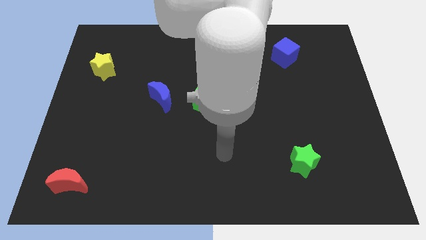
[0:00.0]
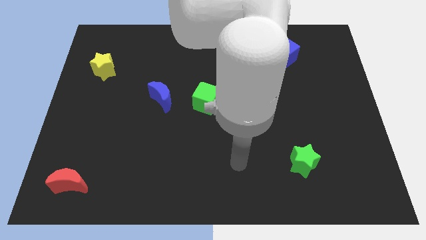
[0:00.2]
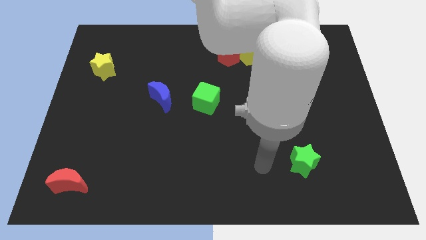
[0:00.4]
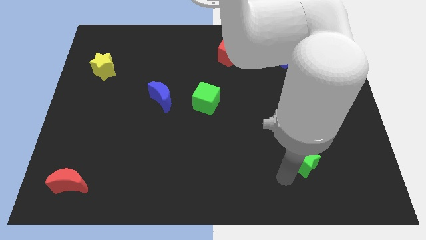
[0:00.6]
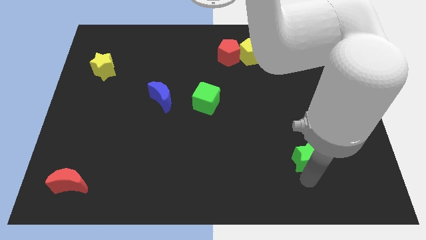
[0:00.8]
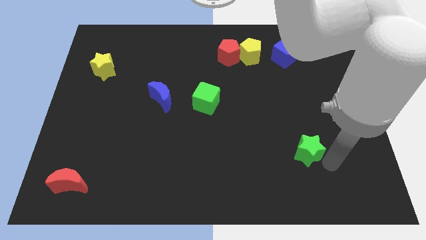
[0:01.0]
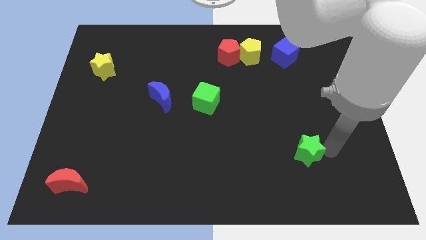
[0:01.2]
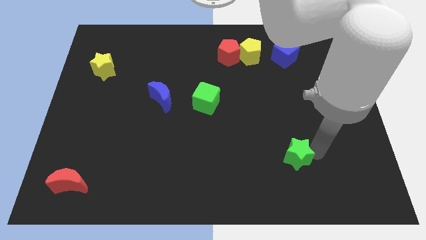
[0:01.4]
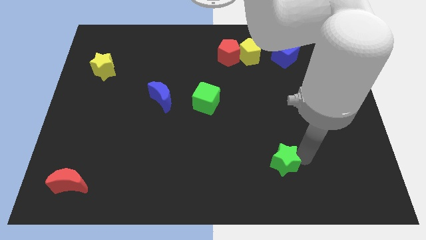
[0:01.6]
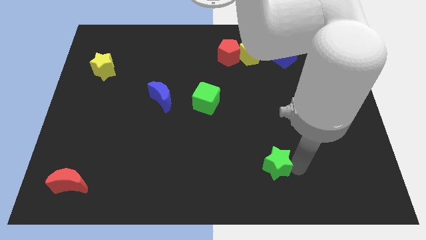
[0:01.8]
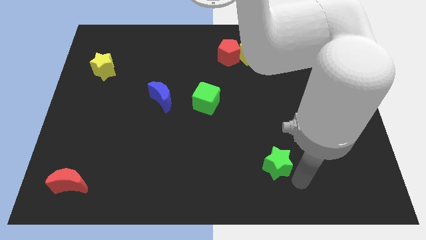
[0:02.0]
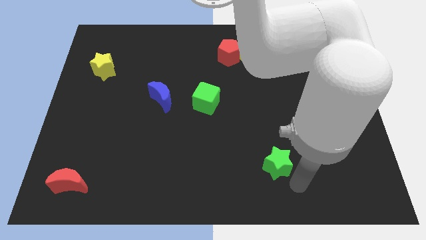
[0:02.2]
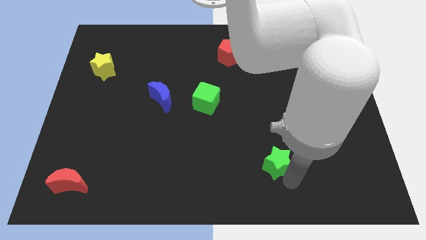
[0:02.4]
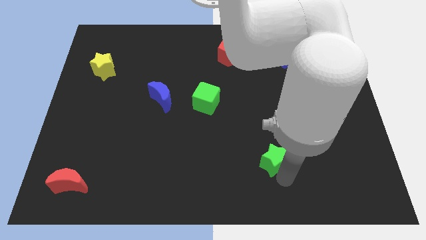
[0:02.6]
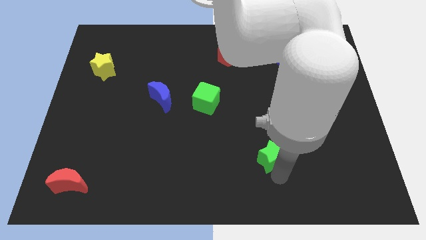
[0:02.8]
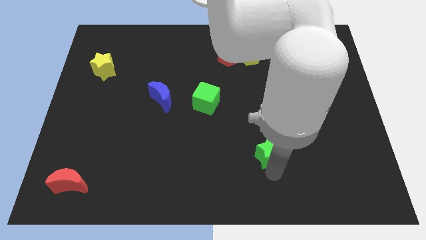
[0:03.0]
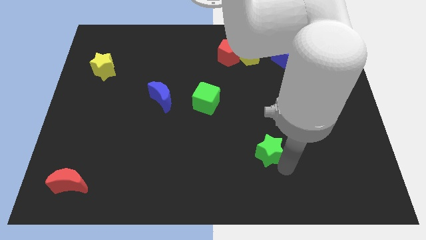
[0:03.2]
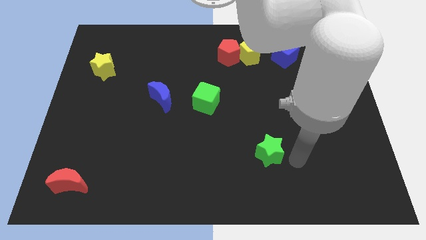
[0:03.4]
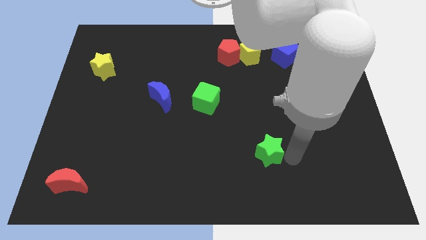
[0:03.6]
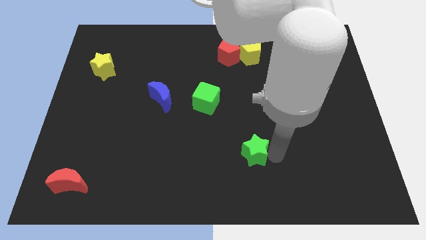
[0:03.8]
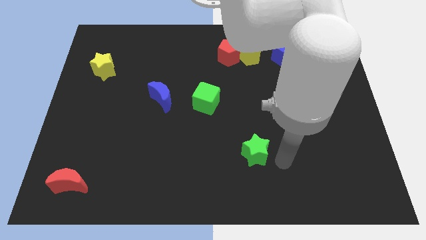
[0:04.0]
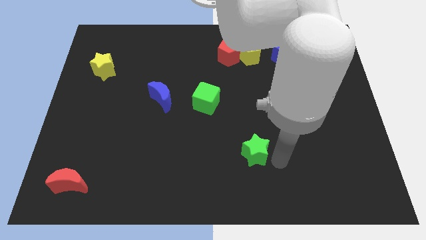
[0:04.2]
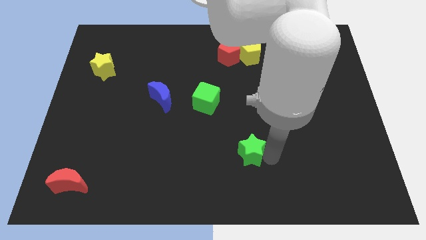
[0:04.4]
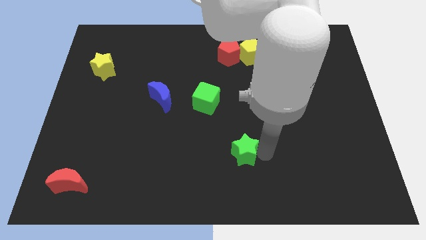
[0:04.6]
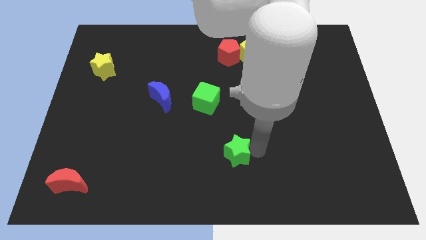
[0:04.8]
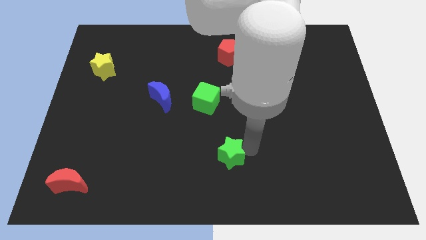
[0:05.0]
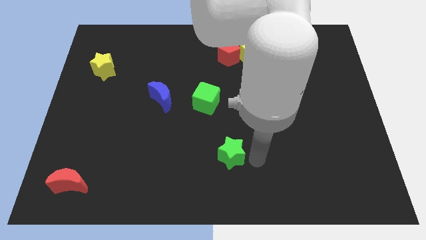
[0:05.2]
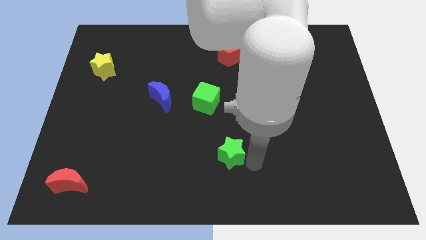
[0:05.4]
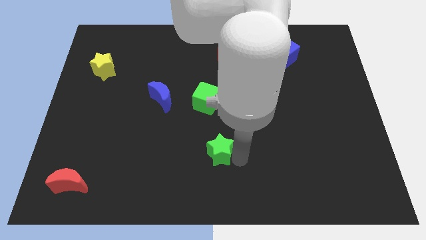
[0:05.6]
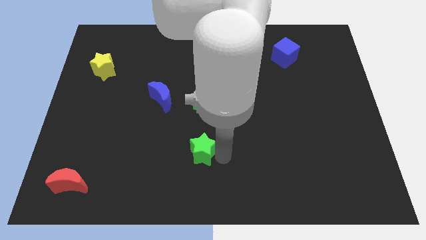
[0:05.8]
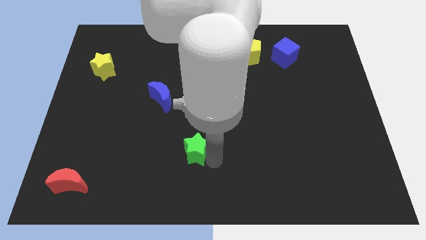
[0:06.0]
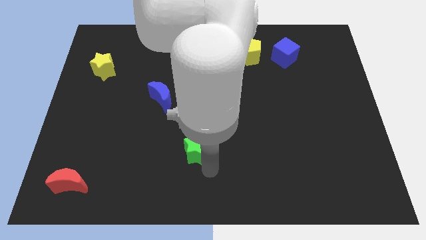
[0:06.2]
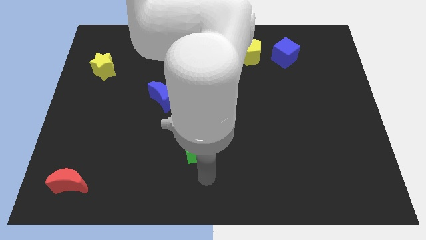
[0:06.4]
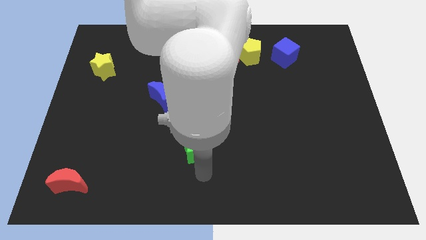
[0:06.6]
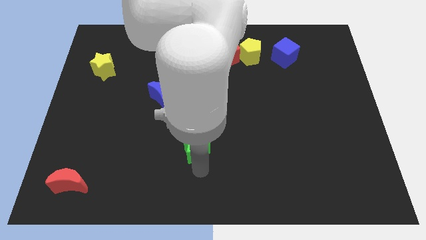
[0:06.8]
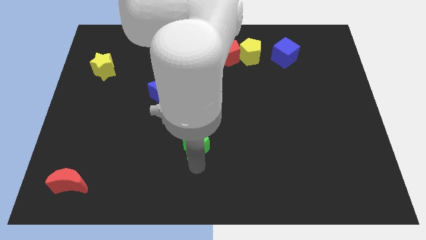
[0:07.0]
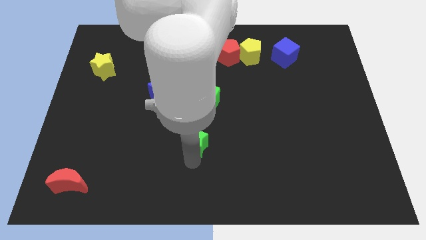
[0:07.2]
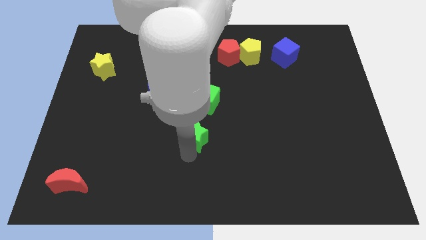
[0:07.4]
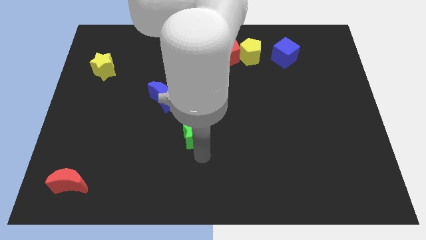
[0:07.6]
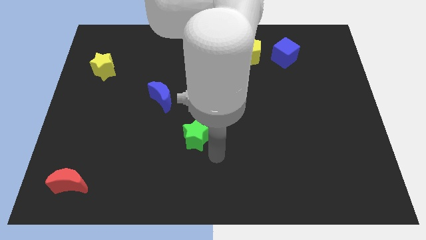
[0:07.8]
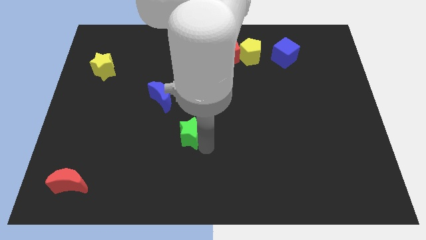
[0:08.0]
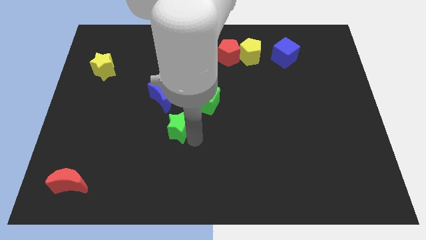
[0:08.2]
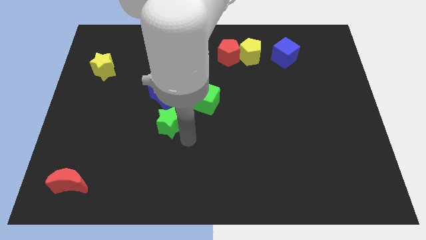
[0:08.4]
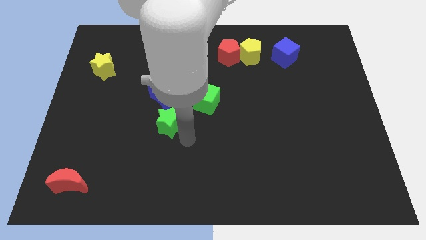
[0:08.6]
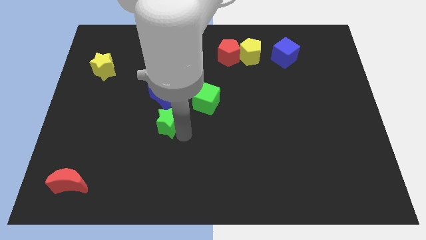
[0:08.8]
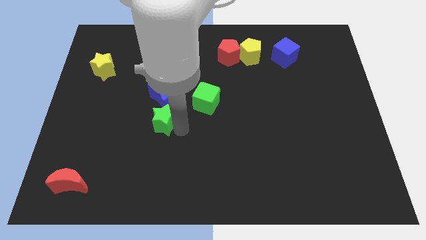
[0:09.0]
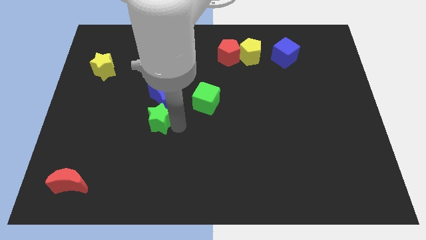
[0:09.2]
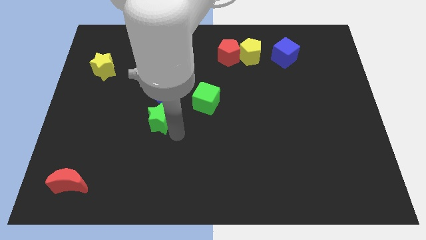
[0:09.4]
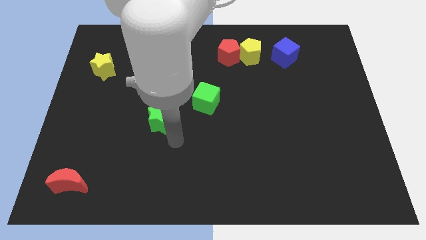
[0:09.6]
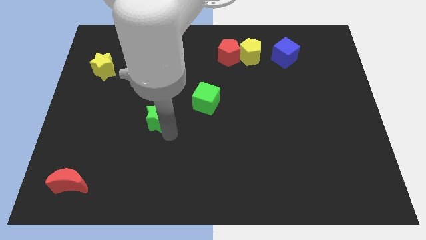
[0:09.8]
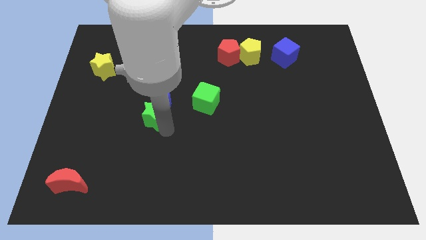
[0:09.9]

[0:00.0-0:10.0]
put the green star to the left side of the green cube

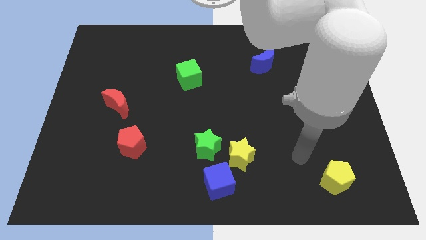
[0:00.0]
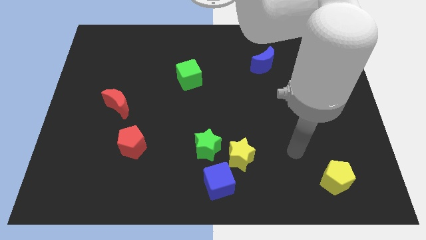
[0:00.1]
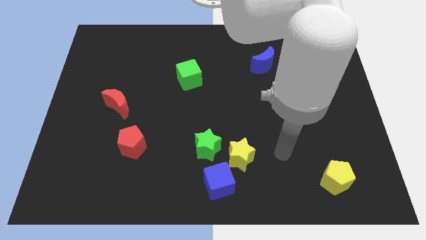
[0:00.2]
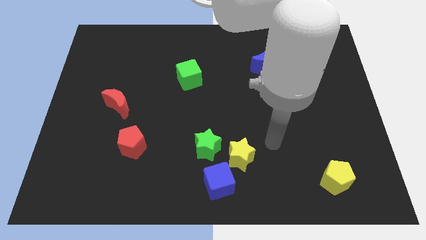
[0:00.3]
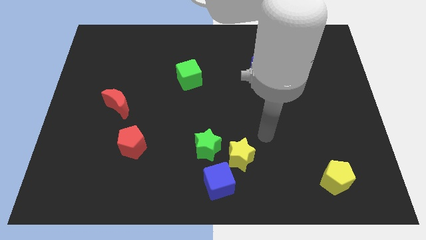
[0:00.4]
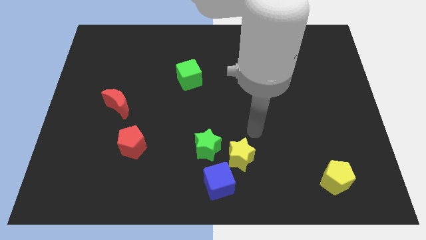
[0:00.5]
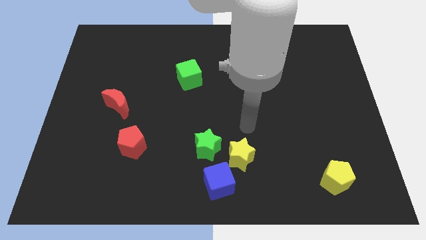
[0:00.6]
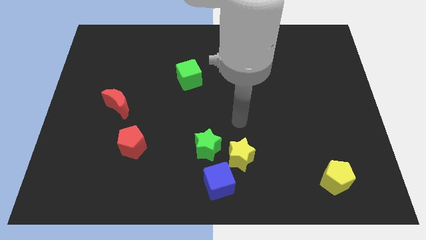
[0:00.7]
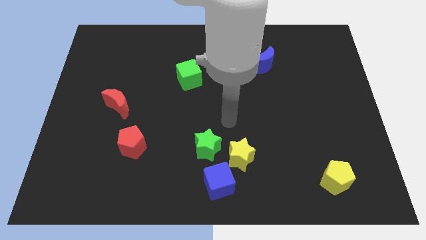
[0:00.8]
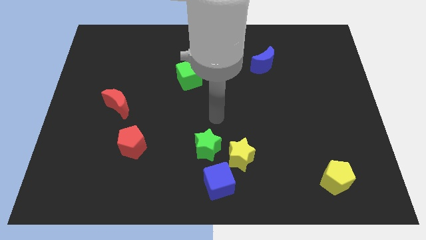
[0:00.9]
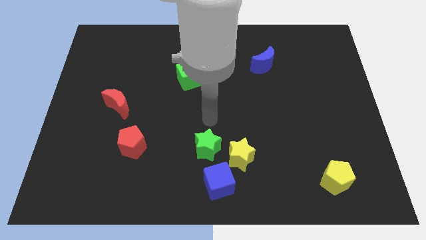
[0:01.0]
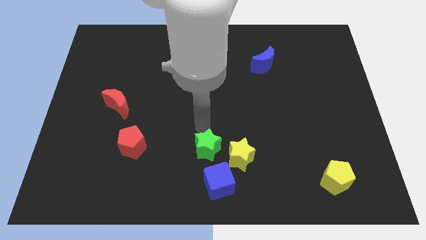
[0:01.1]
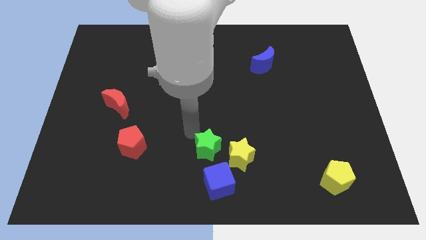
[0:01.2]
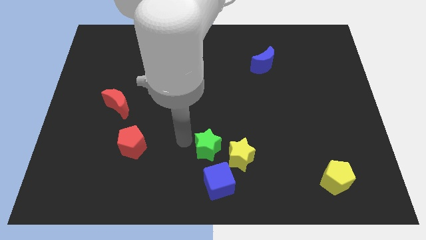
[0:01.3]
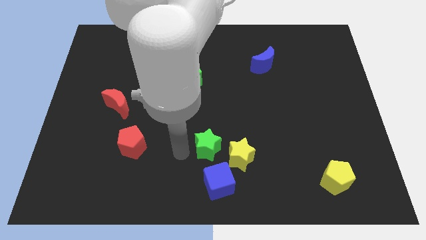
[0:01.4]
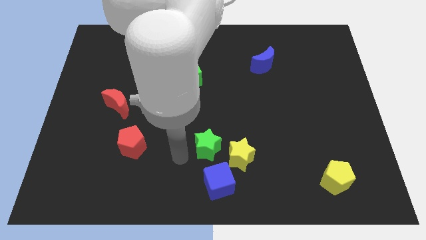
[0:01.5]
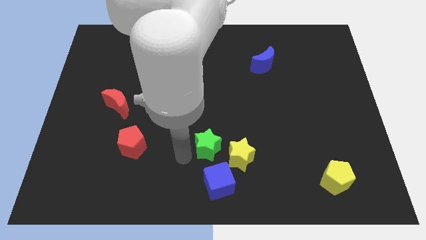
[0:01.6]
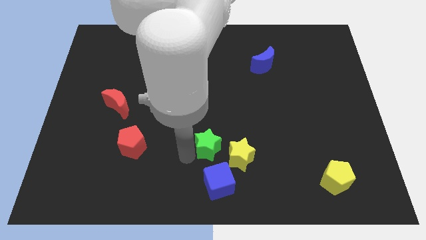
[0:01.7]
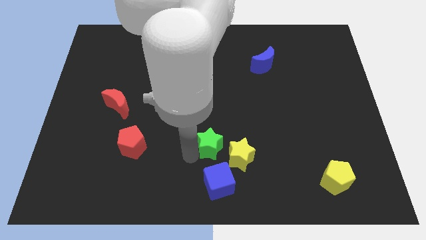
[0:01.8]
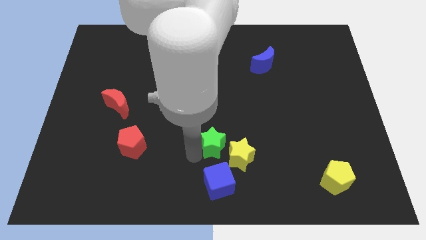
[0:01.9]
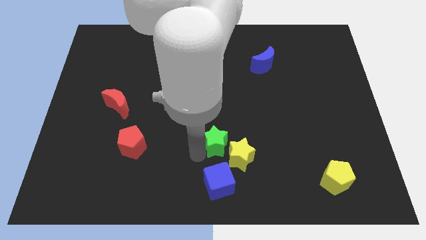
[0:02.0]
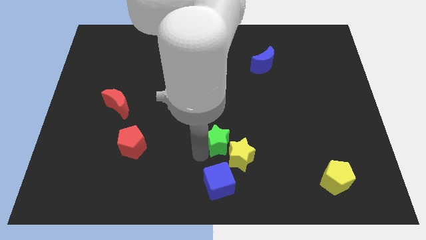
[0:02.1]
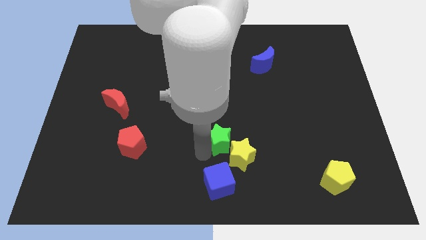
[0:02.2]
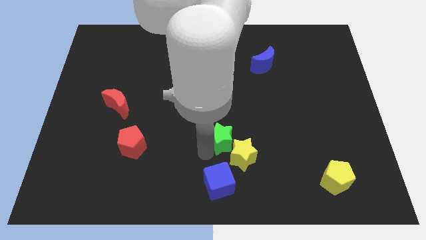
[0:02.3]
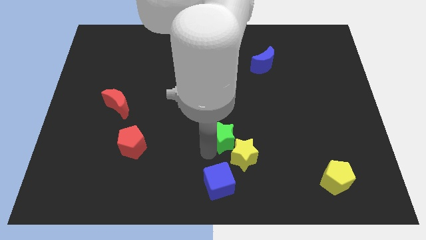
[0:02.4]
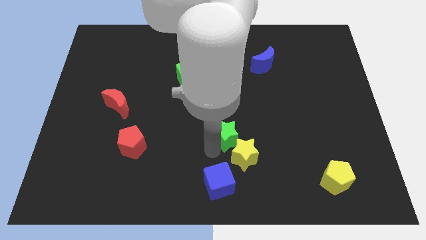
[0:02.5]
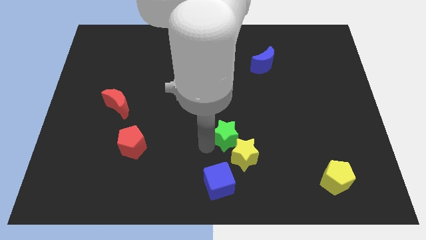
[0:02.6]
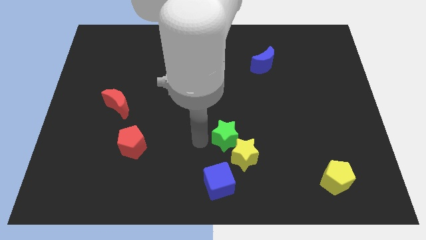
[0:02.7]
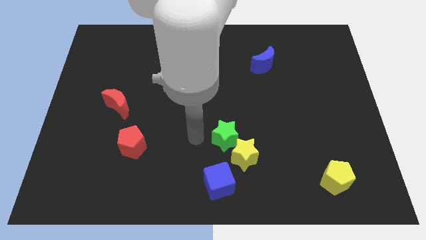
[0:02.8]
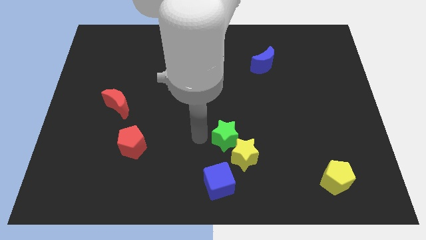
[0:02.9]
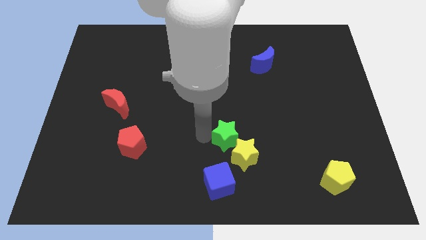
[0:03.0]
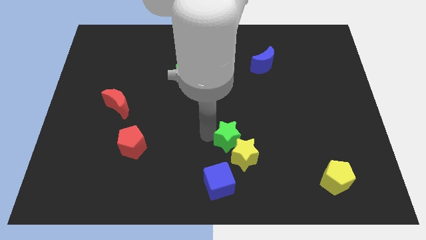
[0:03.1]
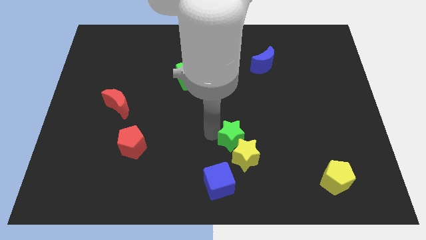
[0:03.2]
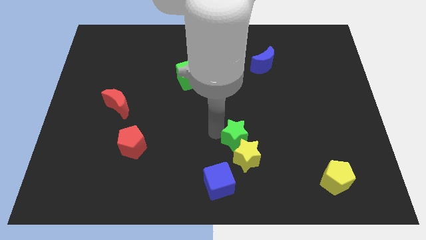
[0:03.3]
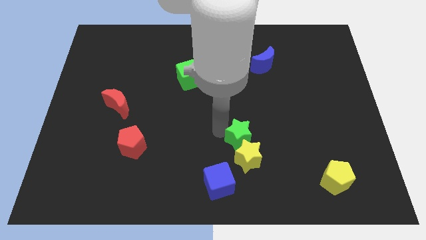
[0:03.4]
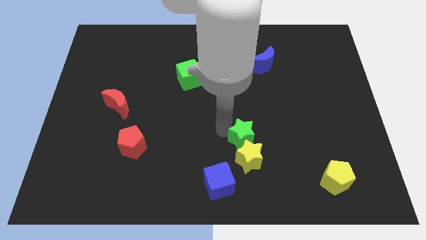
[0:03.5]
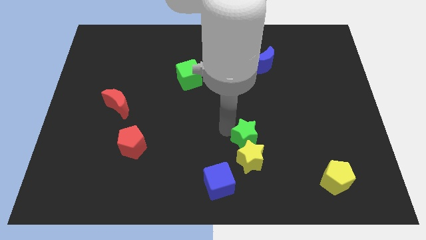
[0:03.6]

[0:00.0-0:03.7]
move the green star diagonally up and to the right of the yellow star
